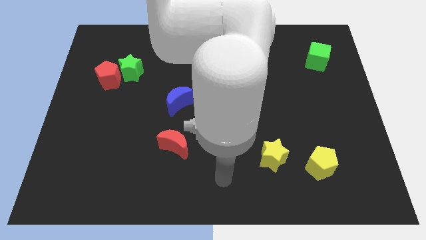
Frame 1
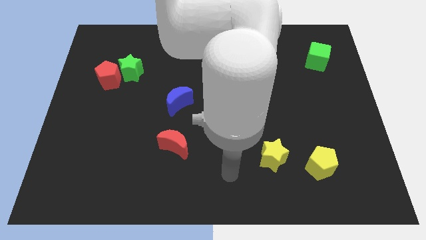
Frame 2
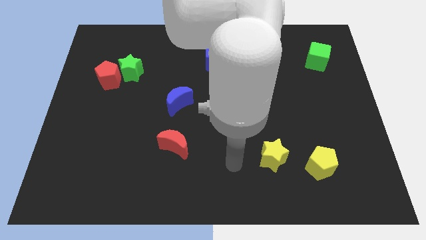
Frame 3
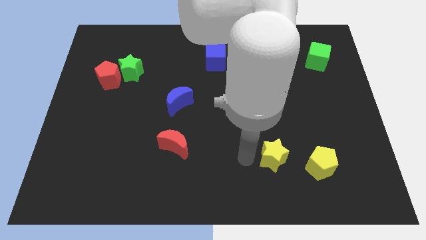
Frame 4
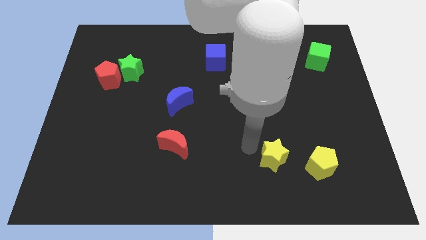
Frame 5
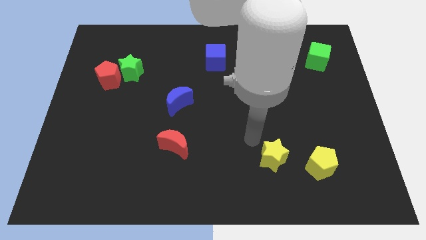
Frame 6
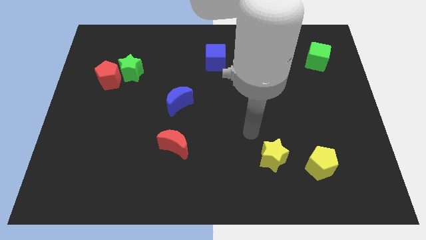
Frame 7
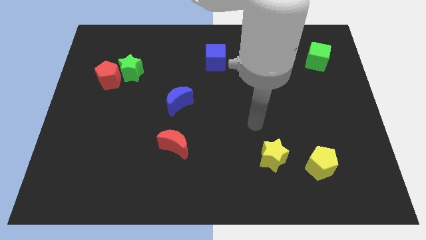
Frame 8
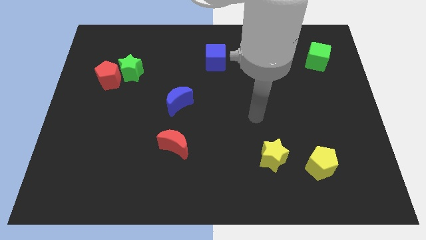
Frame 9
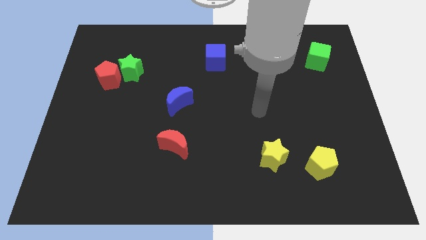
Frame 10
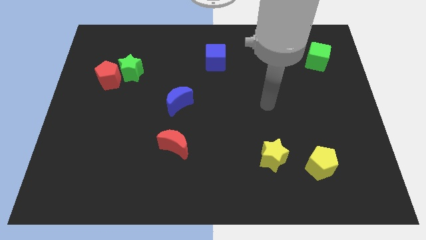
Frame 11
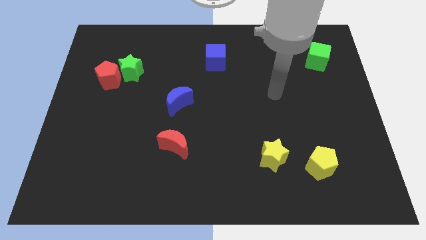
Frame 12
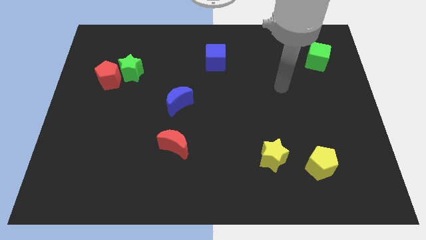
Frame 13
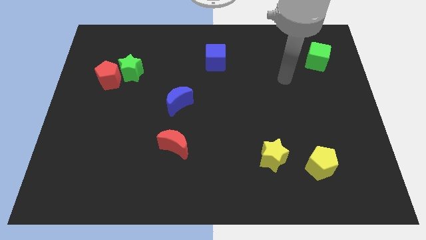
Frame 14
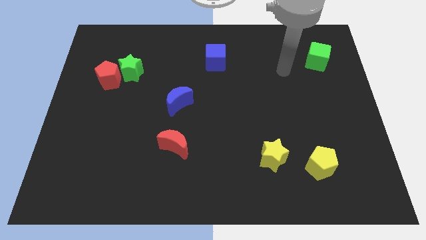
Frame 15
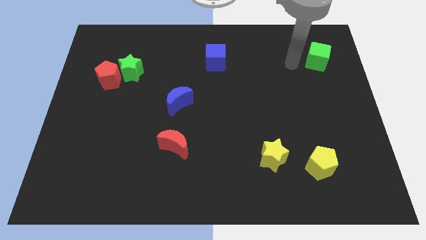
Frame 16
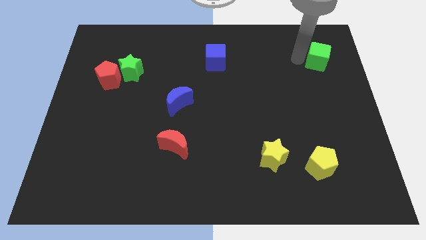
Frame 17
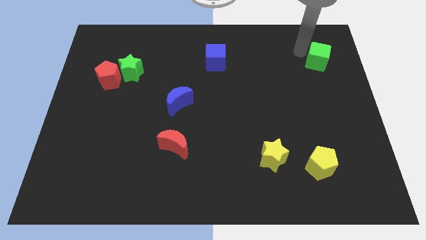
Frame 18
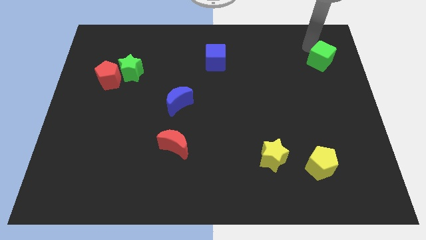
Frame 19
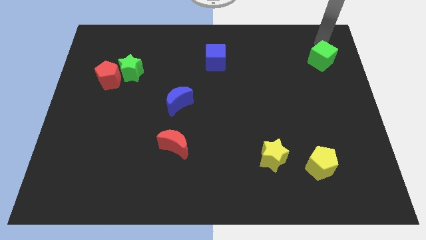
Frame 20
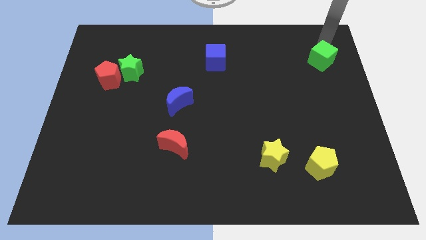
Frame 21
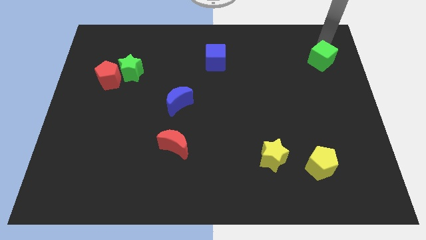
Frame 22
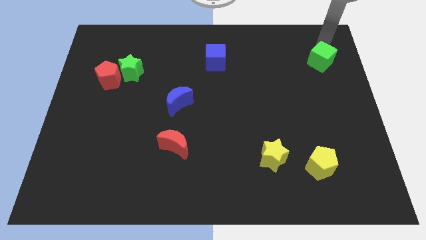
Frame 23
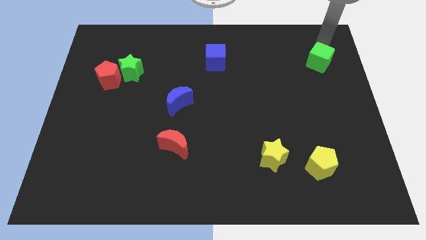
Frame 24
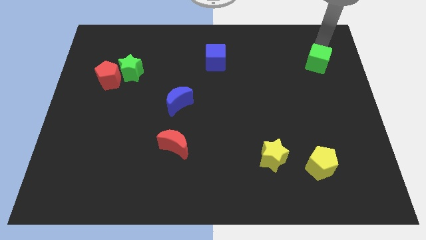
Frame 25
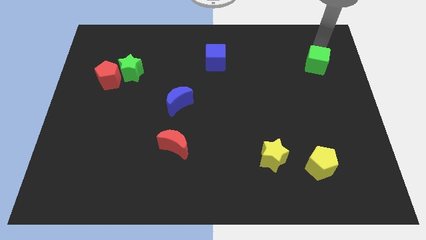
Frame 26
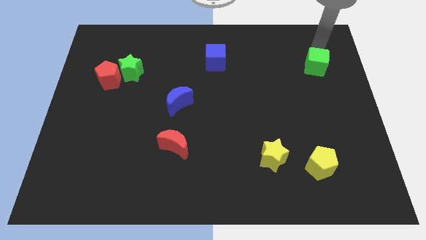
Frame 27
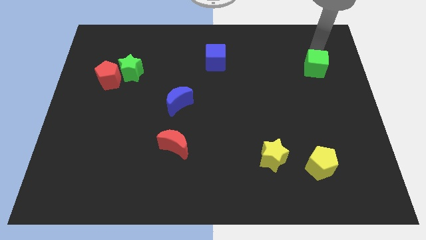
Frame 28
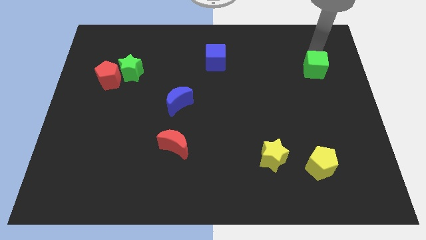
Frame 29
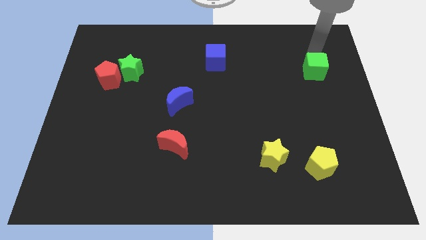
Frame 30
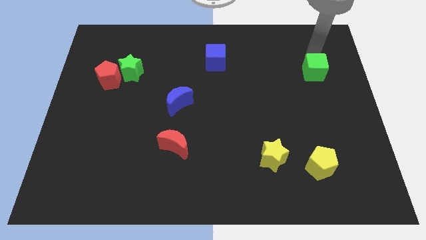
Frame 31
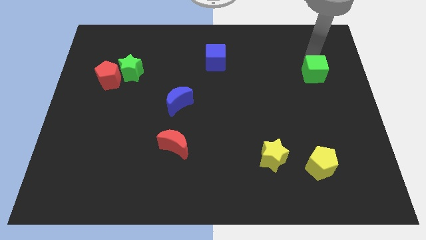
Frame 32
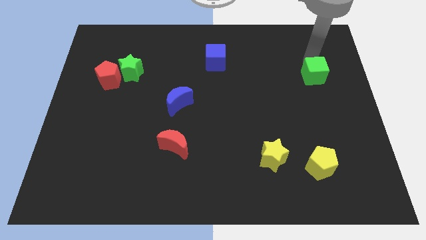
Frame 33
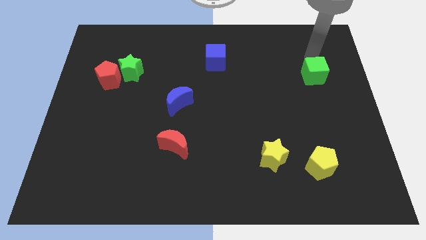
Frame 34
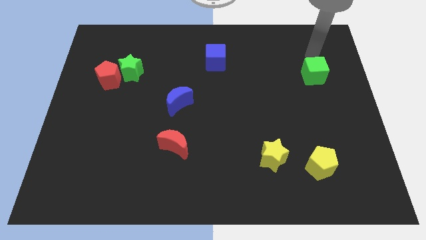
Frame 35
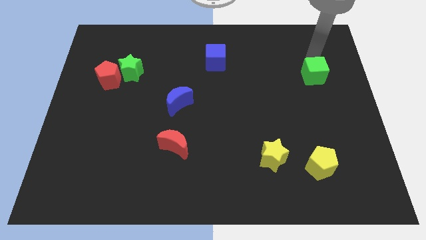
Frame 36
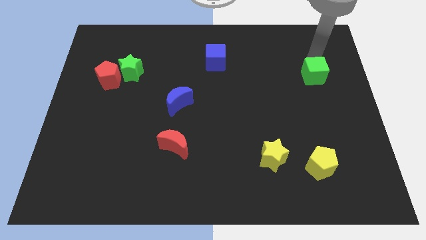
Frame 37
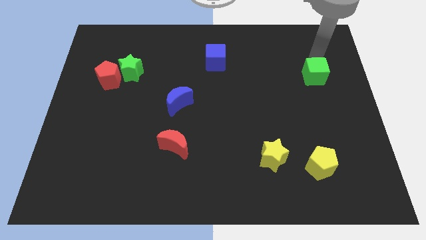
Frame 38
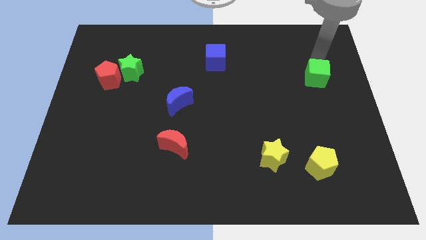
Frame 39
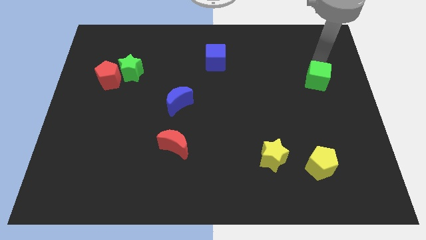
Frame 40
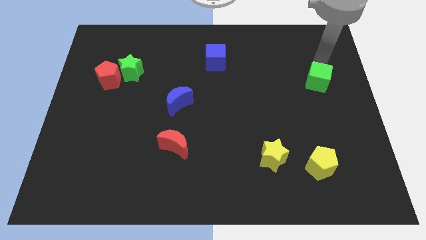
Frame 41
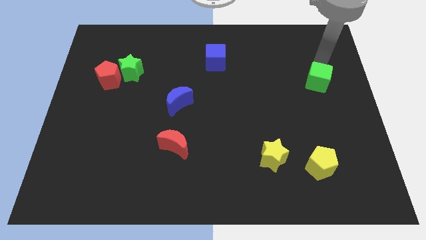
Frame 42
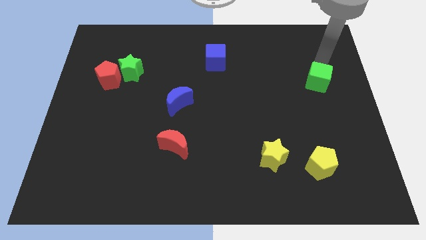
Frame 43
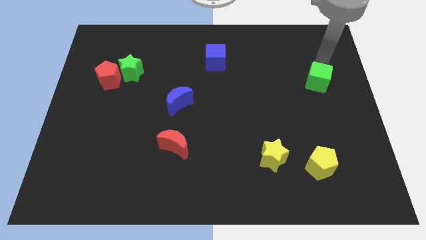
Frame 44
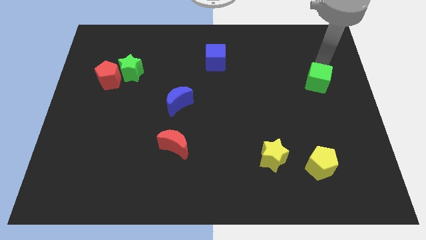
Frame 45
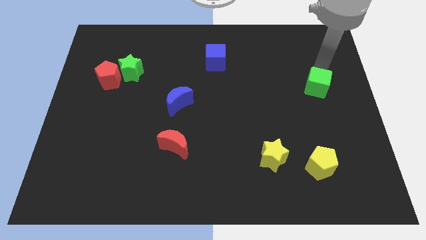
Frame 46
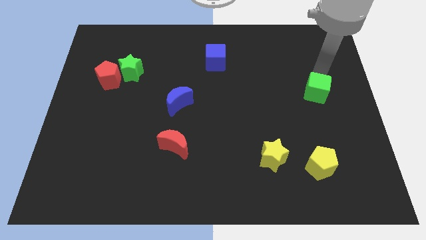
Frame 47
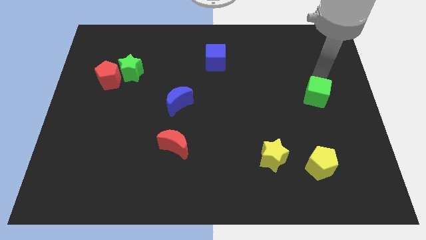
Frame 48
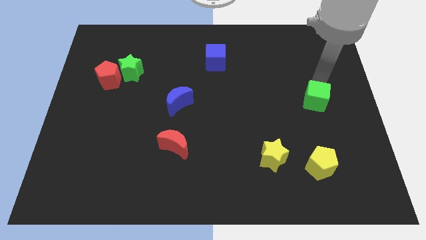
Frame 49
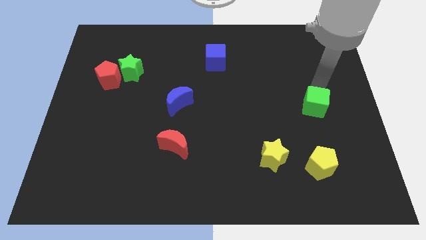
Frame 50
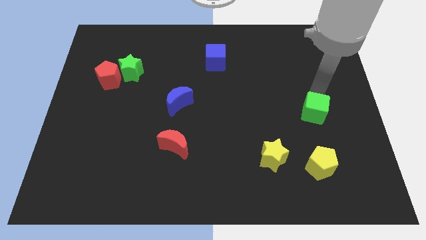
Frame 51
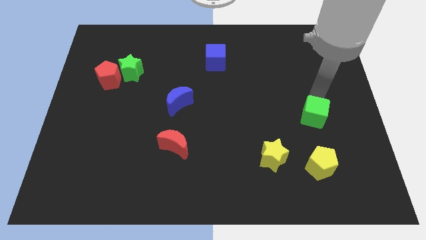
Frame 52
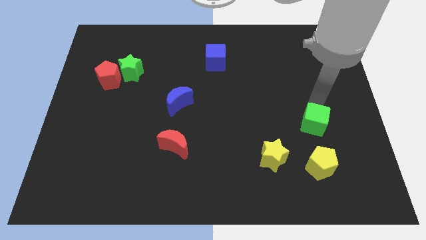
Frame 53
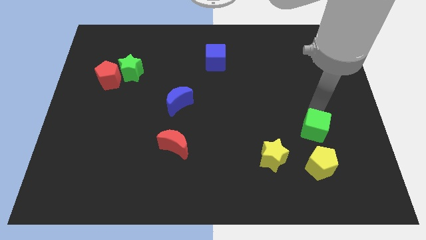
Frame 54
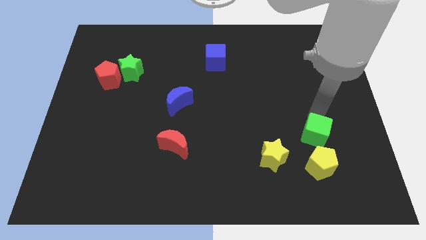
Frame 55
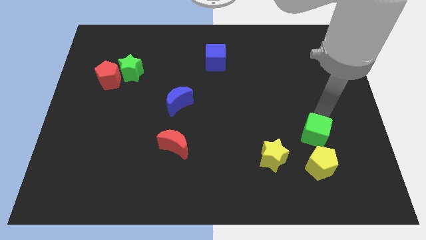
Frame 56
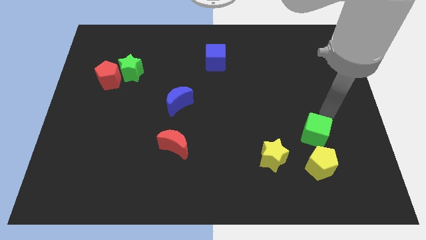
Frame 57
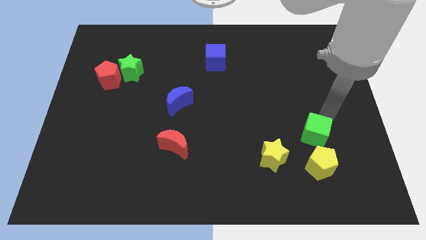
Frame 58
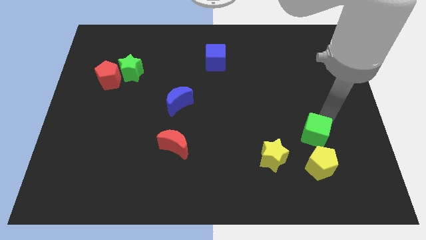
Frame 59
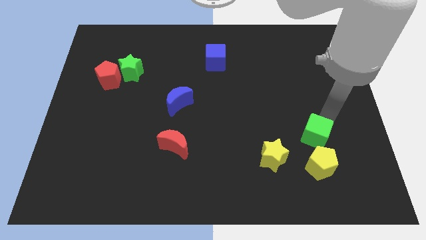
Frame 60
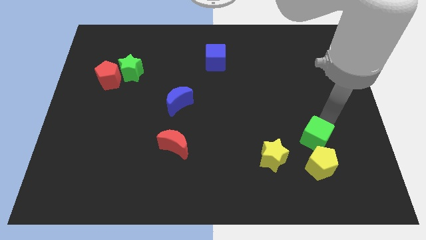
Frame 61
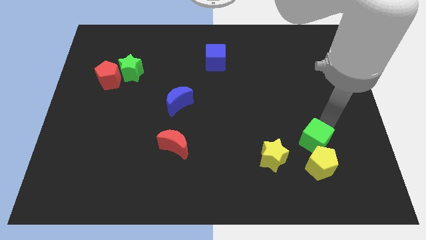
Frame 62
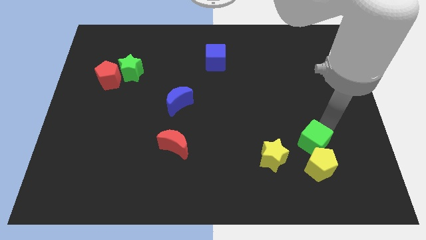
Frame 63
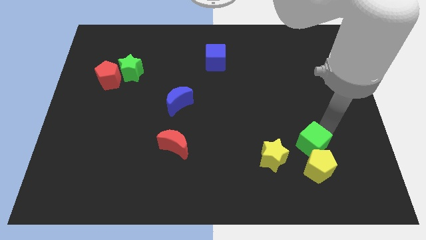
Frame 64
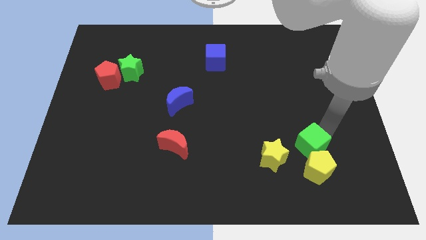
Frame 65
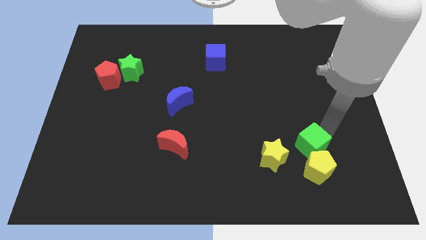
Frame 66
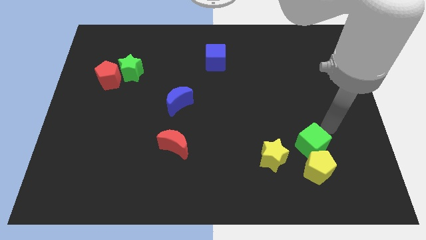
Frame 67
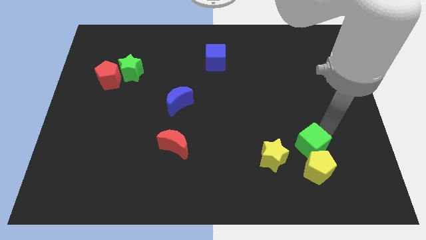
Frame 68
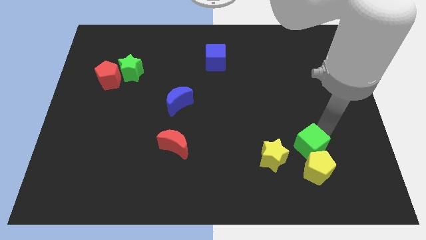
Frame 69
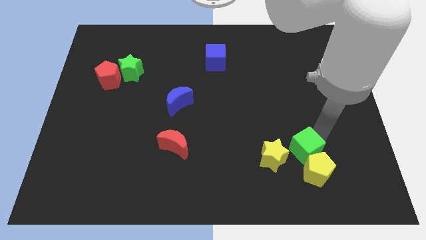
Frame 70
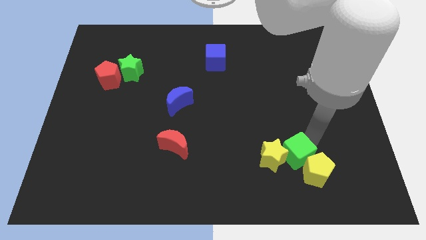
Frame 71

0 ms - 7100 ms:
slide the green cube diagonally down and to the right of the yellow star
